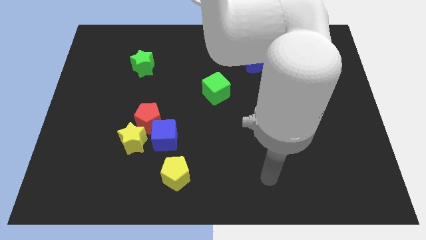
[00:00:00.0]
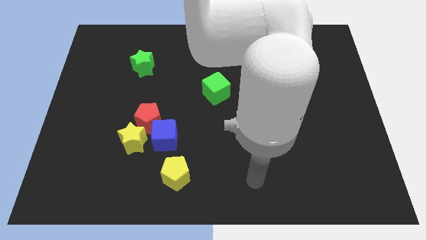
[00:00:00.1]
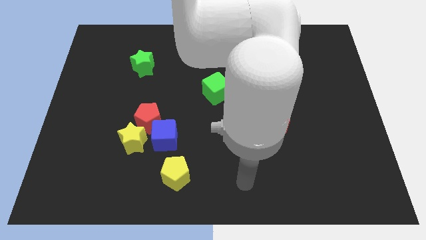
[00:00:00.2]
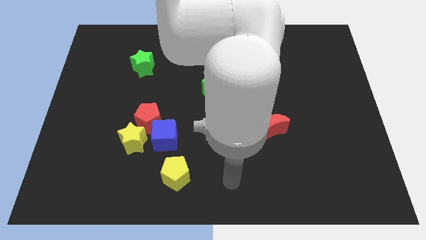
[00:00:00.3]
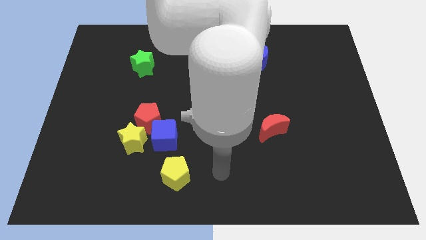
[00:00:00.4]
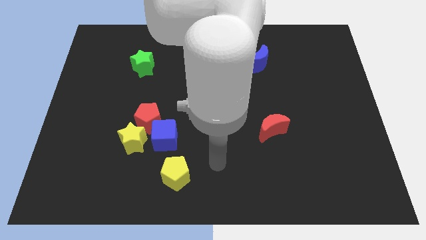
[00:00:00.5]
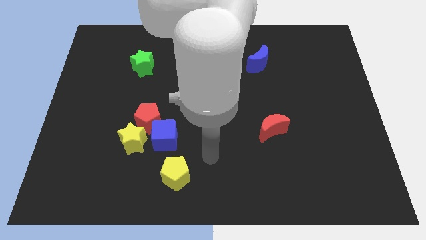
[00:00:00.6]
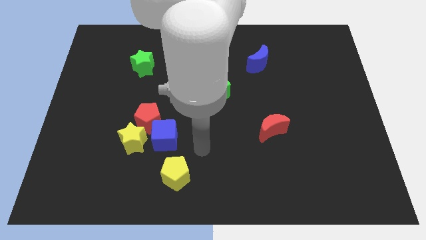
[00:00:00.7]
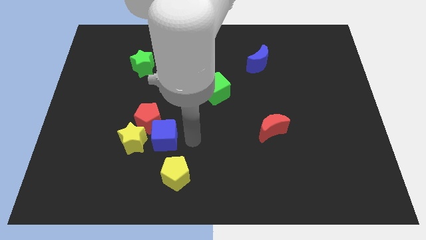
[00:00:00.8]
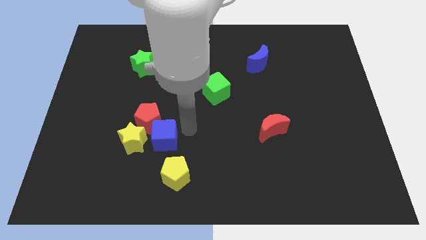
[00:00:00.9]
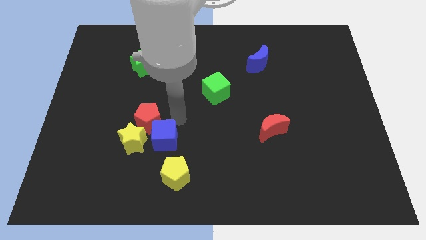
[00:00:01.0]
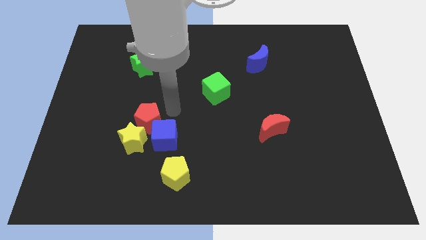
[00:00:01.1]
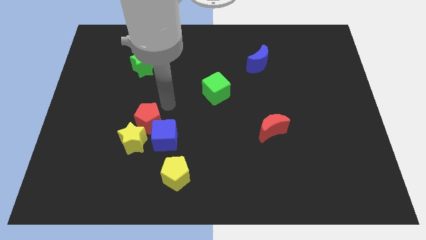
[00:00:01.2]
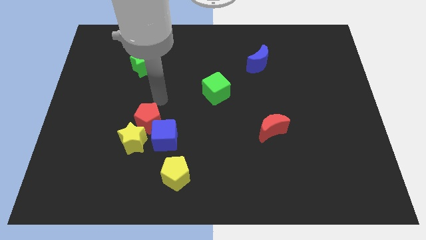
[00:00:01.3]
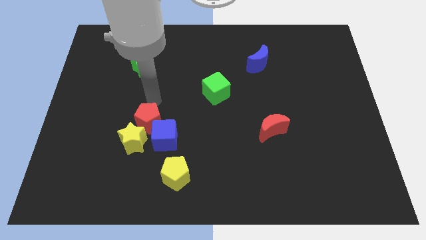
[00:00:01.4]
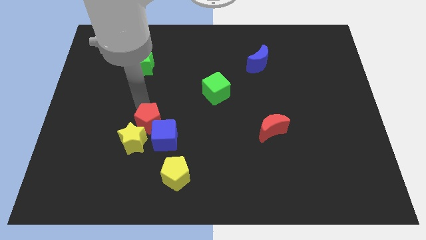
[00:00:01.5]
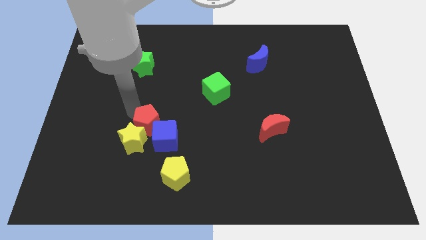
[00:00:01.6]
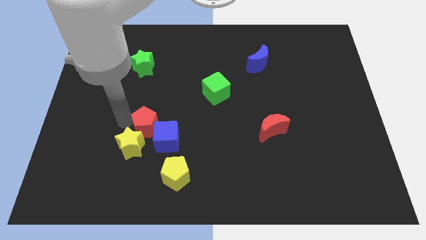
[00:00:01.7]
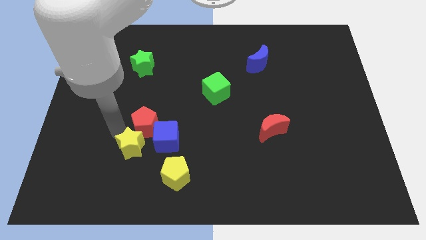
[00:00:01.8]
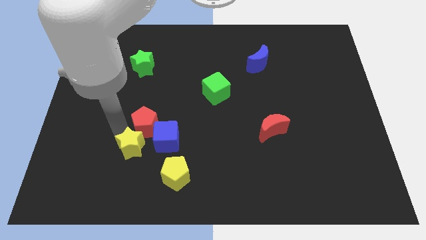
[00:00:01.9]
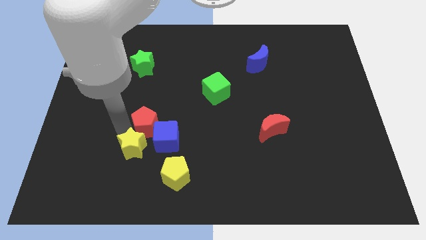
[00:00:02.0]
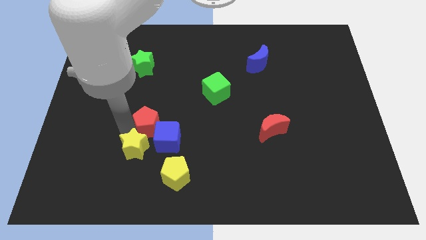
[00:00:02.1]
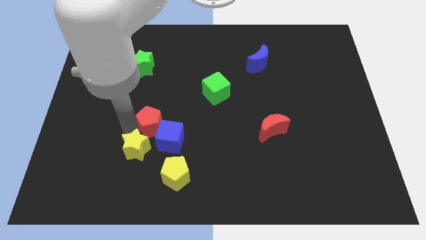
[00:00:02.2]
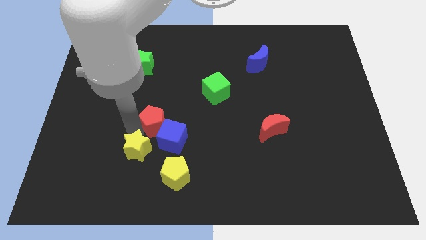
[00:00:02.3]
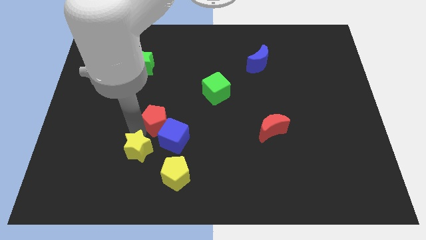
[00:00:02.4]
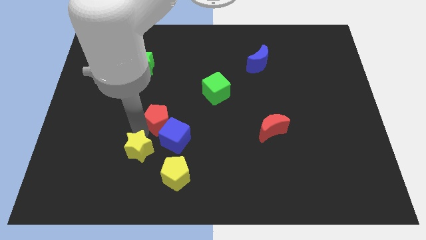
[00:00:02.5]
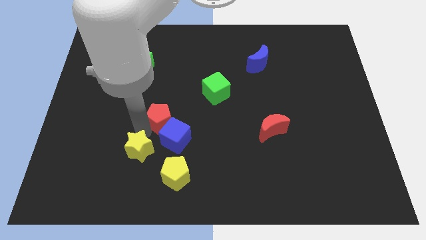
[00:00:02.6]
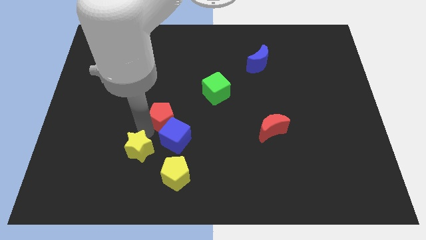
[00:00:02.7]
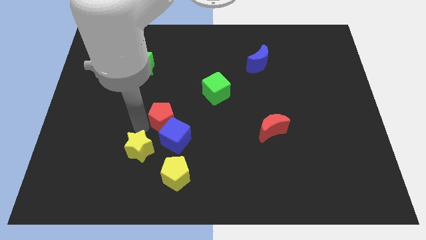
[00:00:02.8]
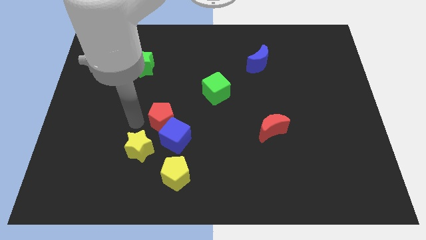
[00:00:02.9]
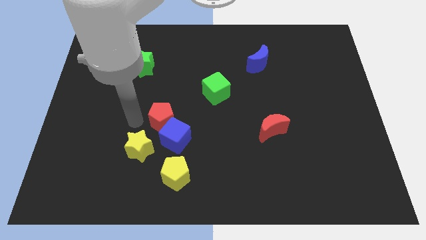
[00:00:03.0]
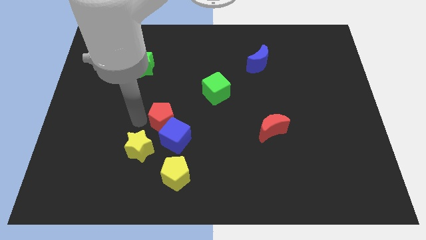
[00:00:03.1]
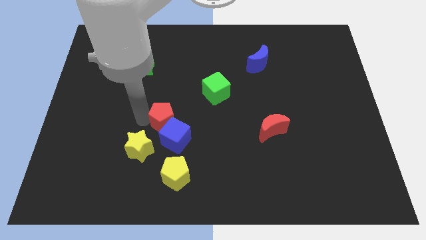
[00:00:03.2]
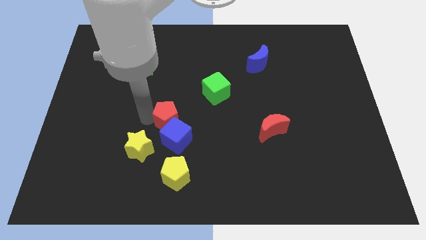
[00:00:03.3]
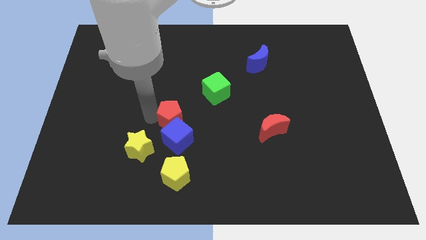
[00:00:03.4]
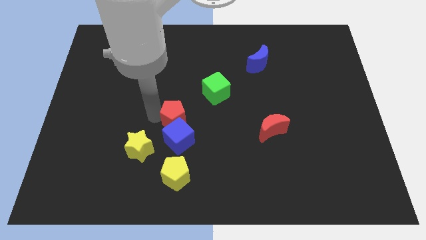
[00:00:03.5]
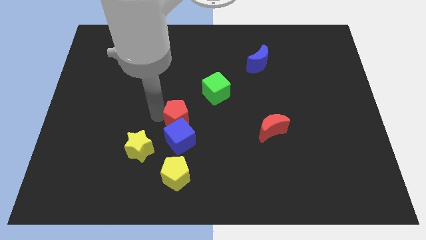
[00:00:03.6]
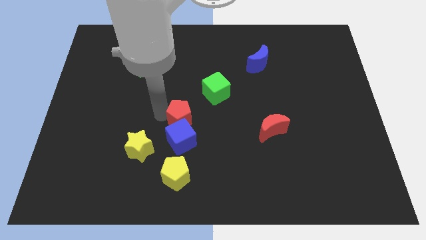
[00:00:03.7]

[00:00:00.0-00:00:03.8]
slightly move the red pentagon right

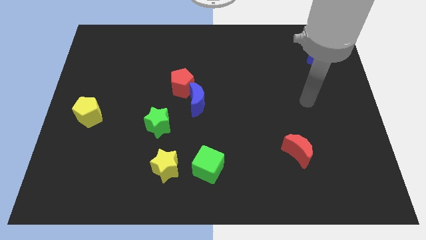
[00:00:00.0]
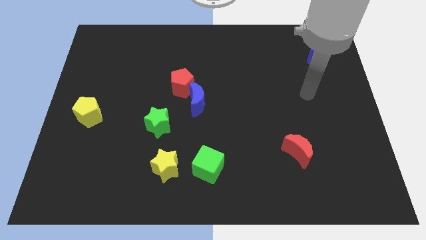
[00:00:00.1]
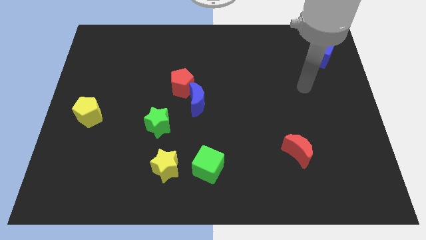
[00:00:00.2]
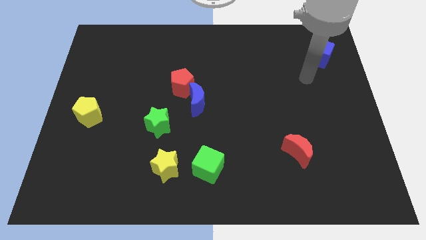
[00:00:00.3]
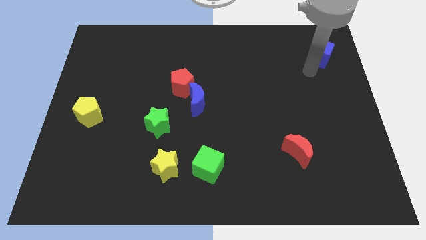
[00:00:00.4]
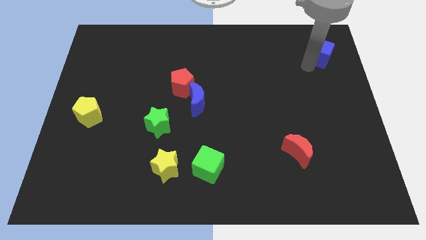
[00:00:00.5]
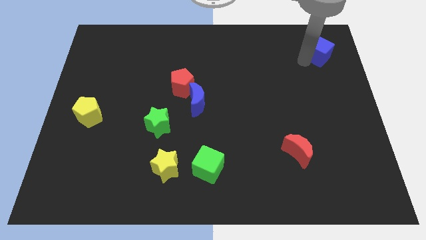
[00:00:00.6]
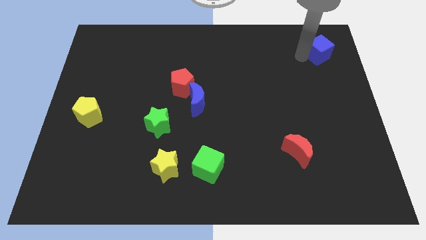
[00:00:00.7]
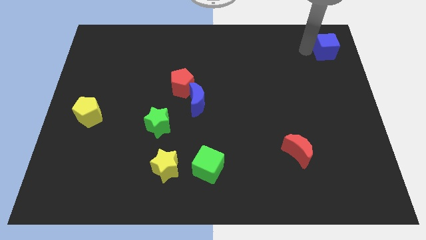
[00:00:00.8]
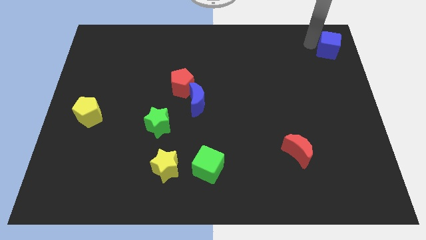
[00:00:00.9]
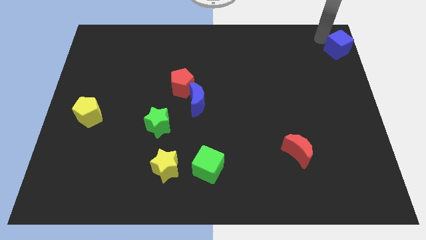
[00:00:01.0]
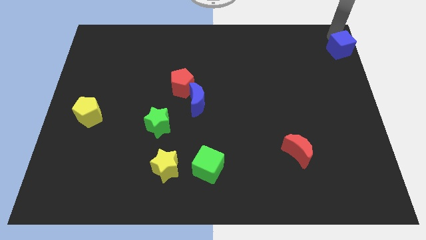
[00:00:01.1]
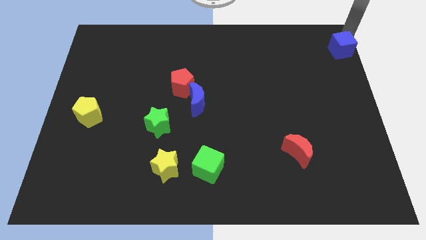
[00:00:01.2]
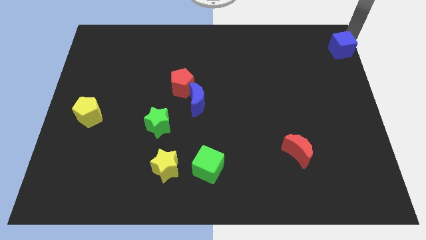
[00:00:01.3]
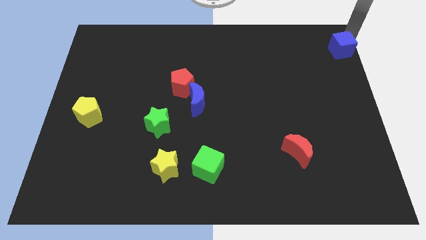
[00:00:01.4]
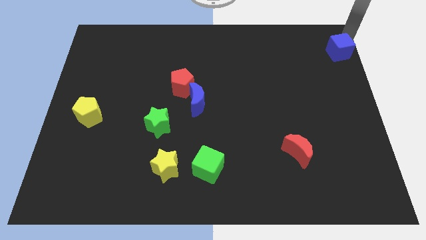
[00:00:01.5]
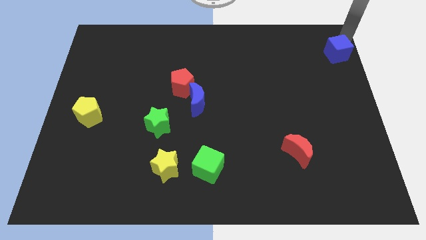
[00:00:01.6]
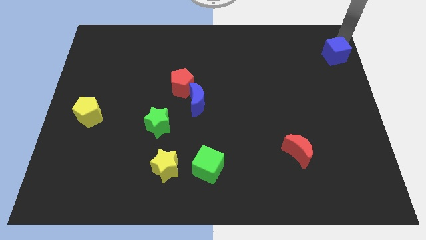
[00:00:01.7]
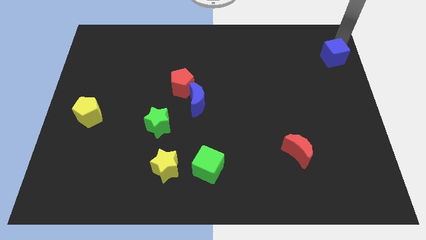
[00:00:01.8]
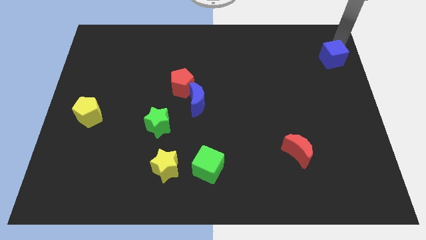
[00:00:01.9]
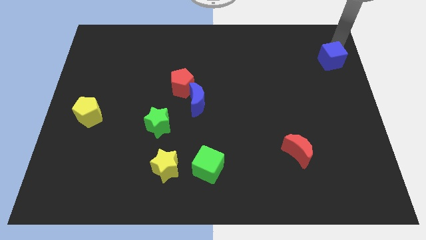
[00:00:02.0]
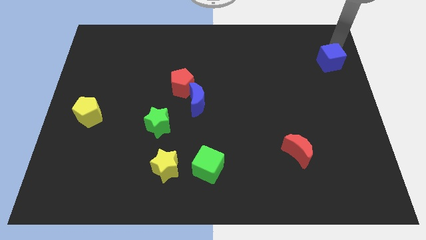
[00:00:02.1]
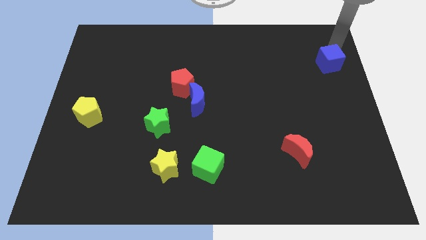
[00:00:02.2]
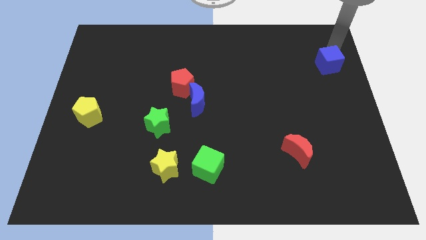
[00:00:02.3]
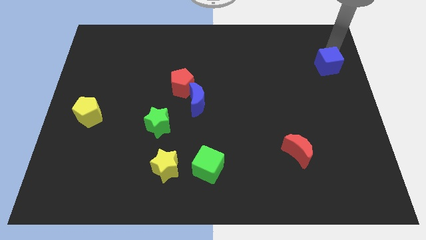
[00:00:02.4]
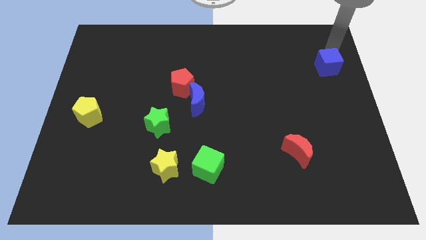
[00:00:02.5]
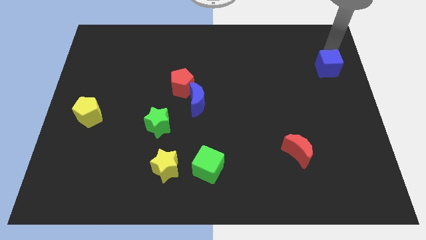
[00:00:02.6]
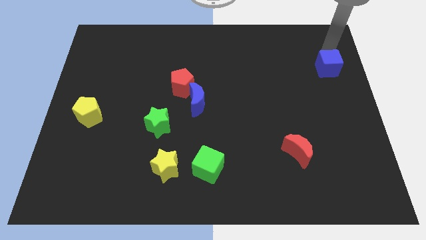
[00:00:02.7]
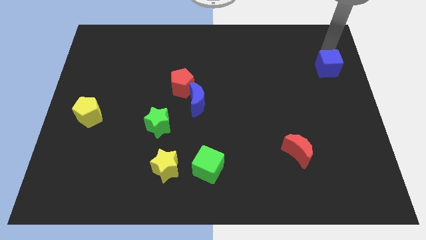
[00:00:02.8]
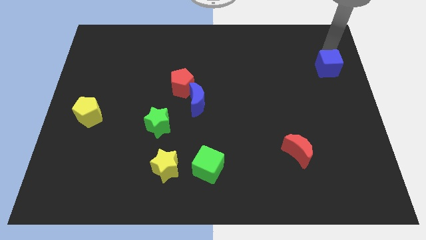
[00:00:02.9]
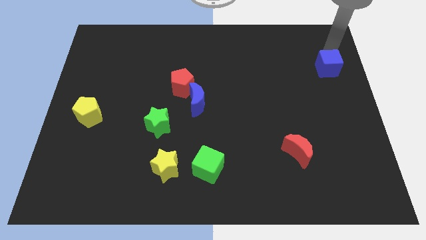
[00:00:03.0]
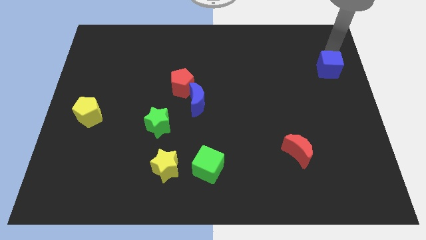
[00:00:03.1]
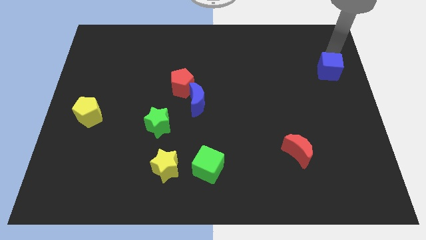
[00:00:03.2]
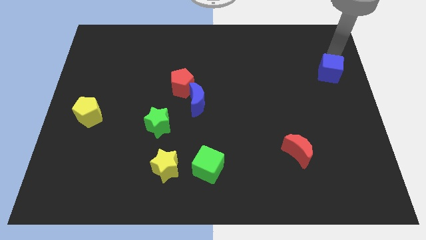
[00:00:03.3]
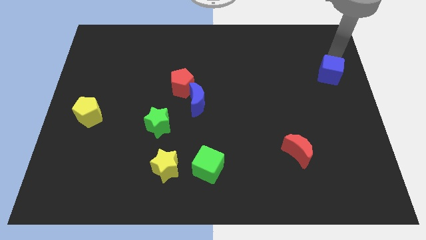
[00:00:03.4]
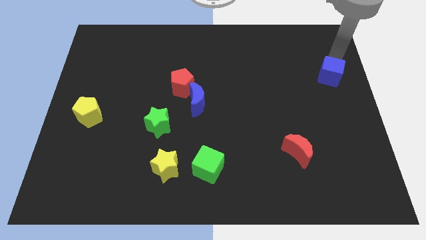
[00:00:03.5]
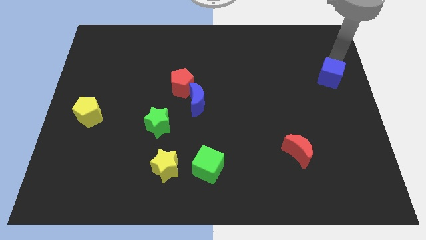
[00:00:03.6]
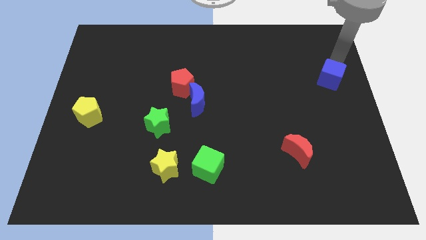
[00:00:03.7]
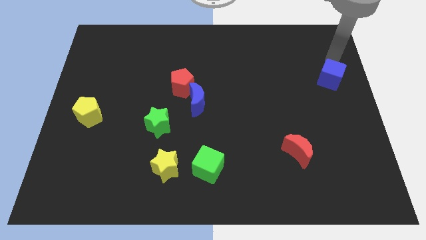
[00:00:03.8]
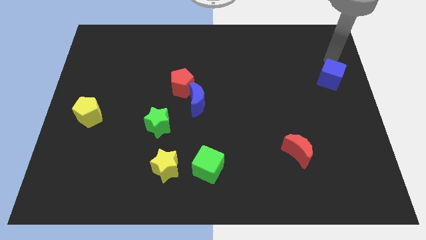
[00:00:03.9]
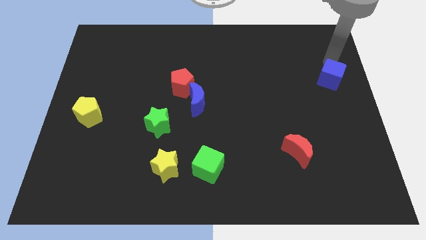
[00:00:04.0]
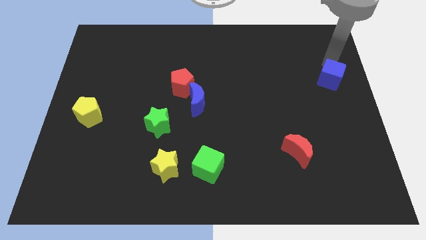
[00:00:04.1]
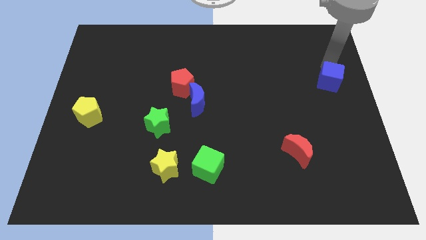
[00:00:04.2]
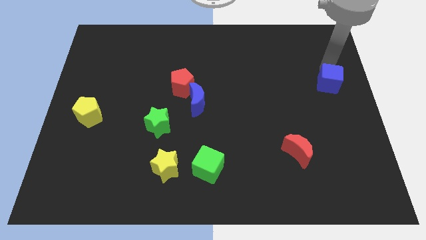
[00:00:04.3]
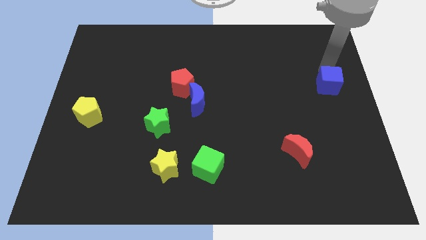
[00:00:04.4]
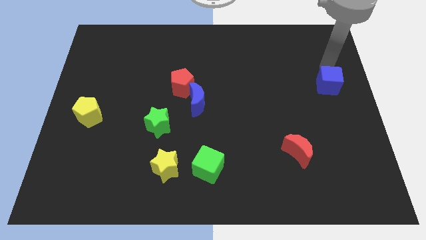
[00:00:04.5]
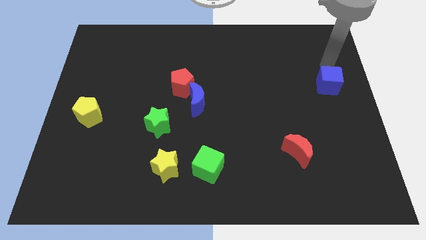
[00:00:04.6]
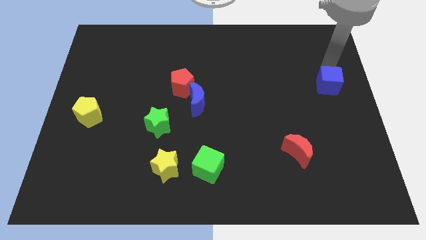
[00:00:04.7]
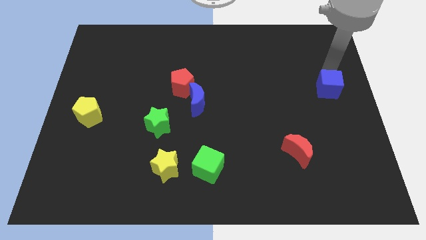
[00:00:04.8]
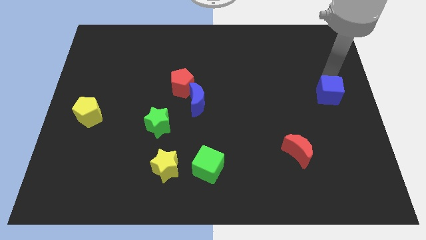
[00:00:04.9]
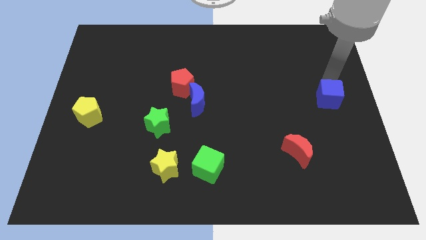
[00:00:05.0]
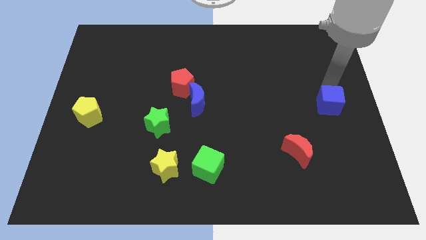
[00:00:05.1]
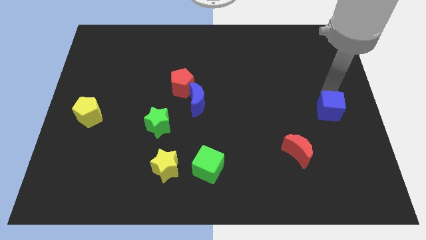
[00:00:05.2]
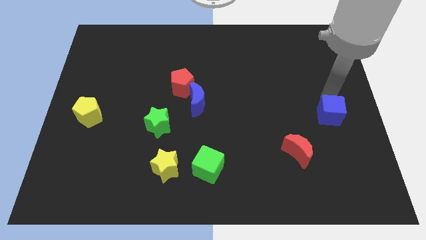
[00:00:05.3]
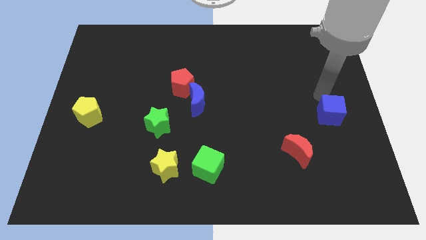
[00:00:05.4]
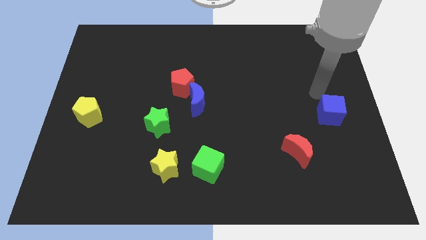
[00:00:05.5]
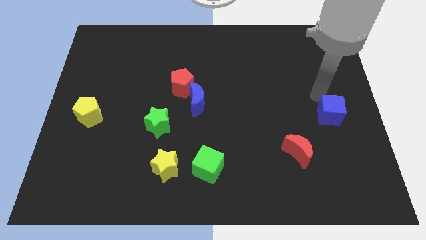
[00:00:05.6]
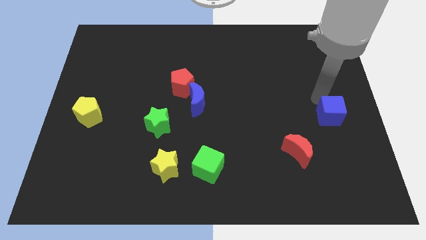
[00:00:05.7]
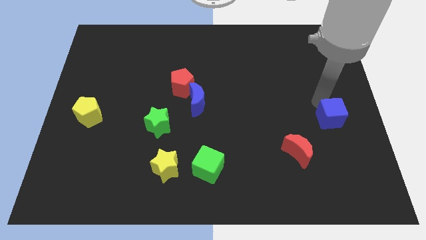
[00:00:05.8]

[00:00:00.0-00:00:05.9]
move the blue cube downwards
